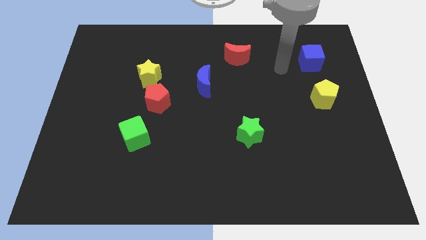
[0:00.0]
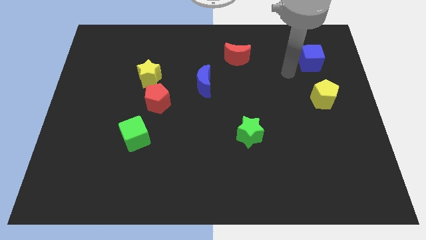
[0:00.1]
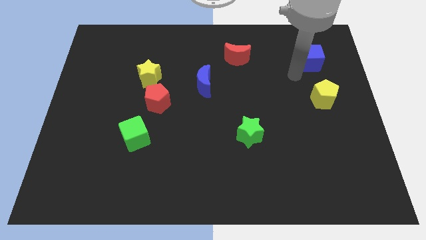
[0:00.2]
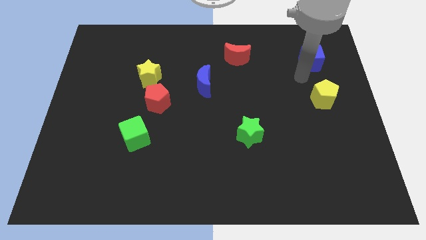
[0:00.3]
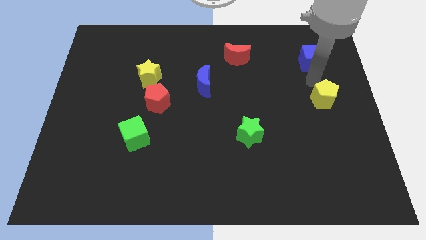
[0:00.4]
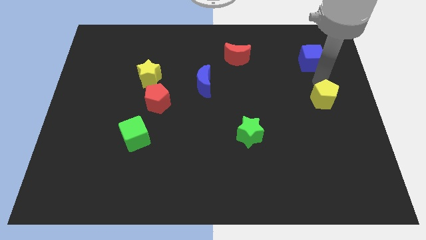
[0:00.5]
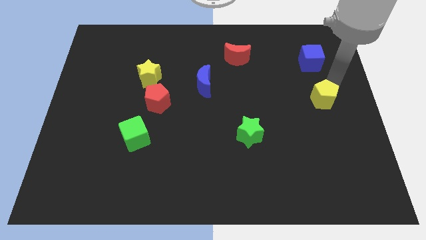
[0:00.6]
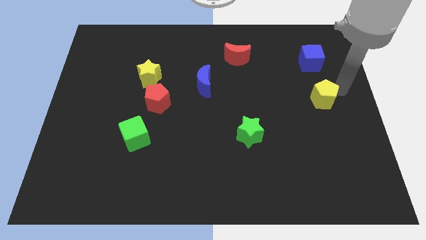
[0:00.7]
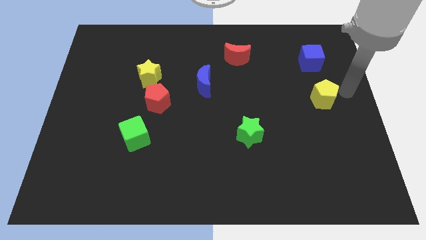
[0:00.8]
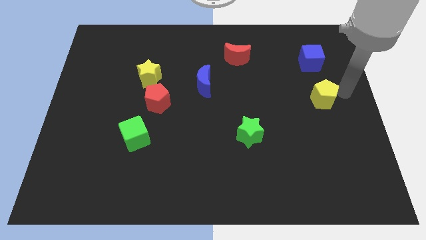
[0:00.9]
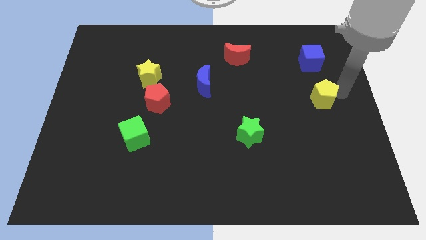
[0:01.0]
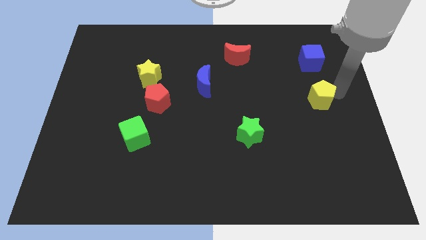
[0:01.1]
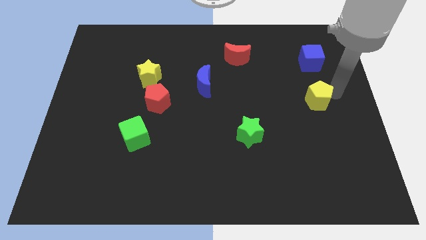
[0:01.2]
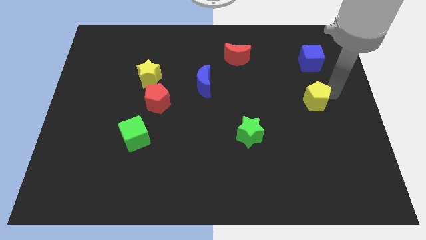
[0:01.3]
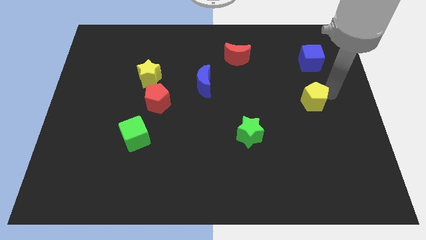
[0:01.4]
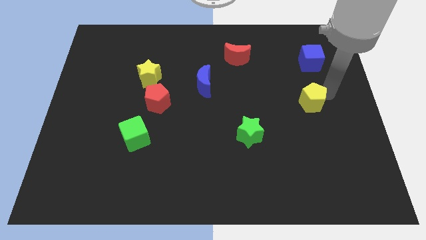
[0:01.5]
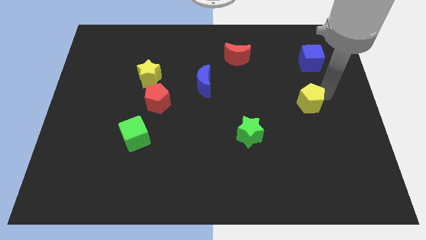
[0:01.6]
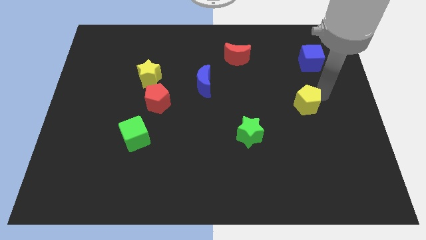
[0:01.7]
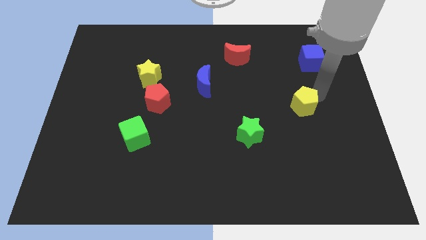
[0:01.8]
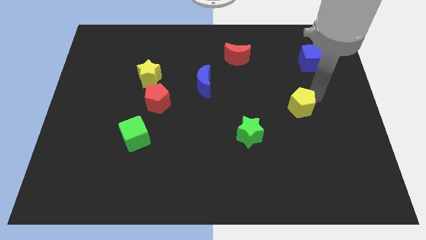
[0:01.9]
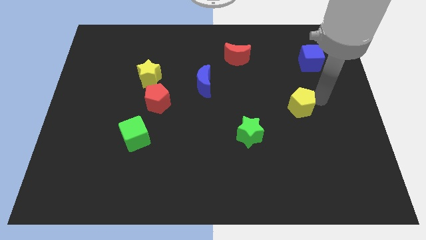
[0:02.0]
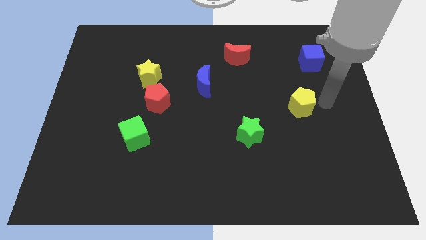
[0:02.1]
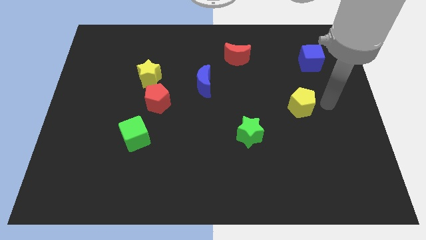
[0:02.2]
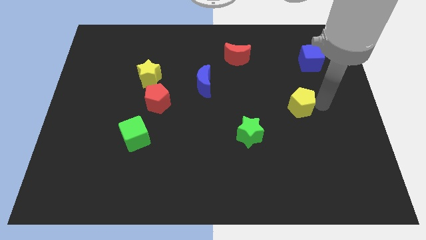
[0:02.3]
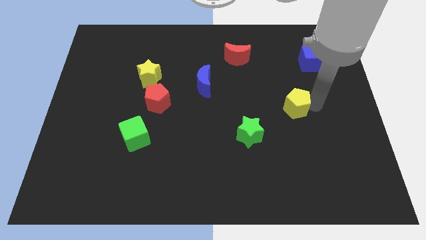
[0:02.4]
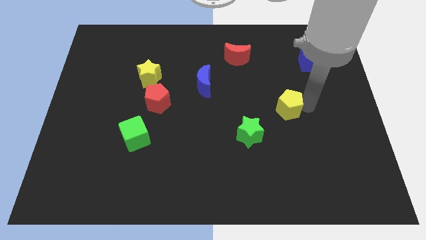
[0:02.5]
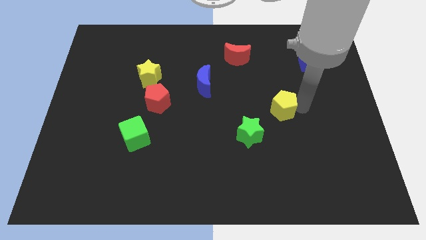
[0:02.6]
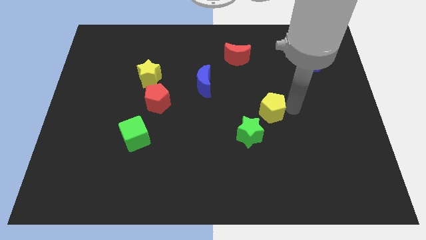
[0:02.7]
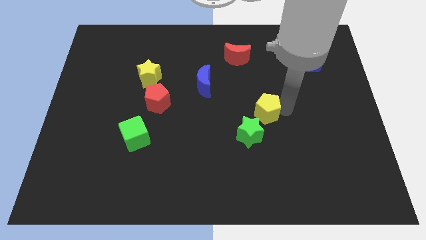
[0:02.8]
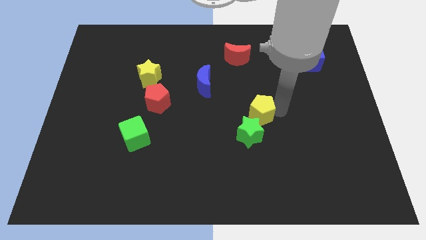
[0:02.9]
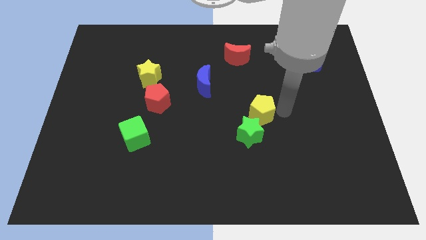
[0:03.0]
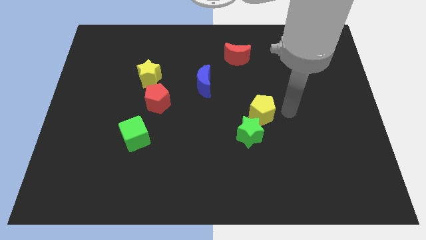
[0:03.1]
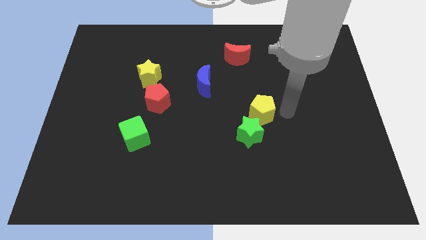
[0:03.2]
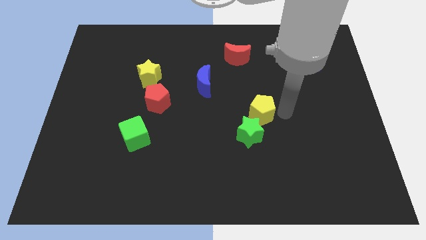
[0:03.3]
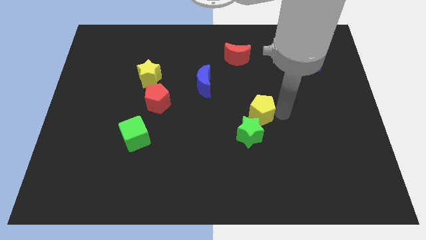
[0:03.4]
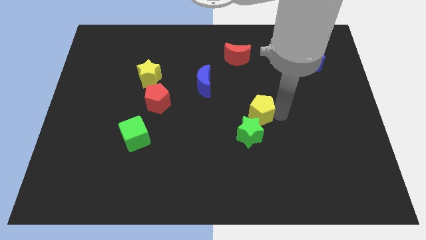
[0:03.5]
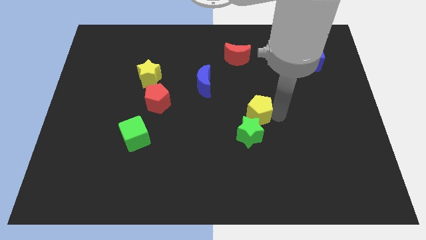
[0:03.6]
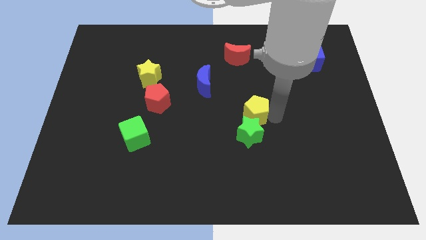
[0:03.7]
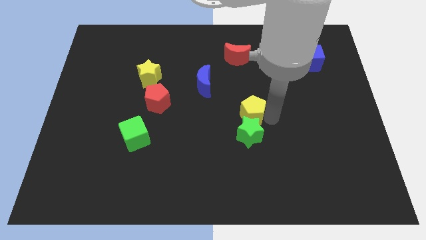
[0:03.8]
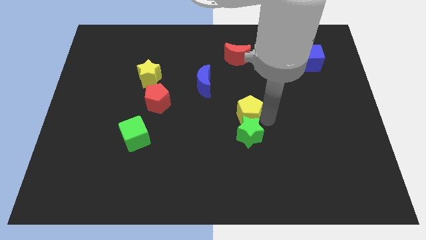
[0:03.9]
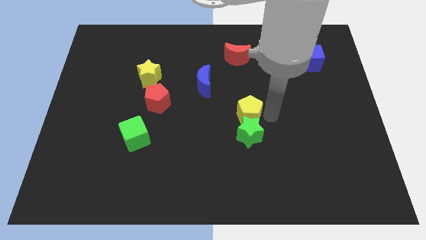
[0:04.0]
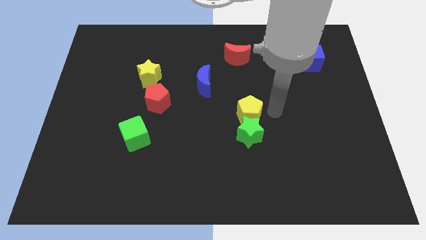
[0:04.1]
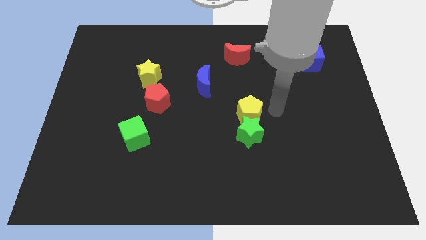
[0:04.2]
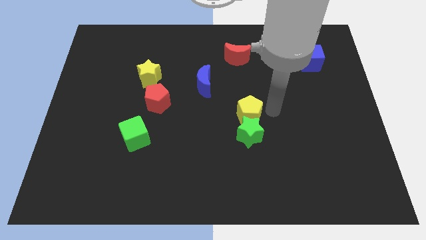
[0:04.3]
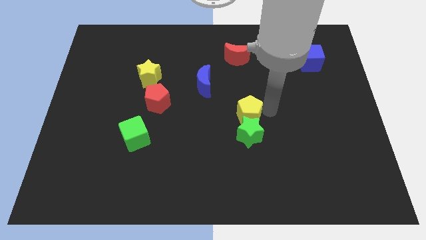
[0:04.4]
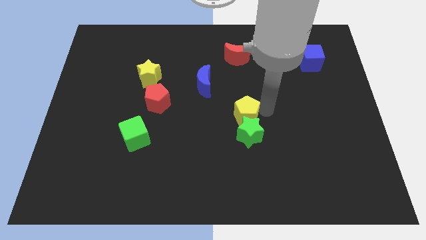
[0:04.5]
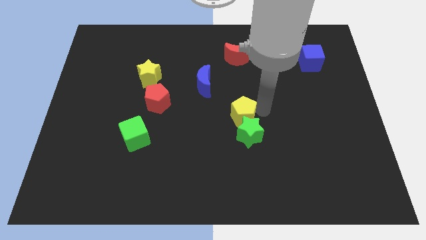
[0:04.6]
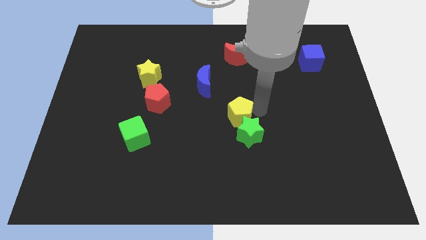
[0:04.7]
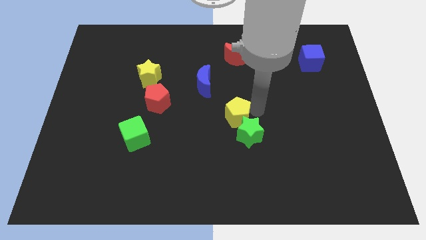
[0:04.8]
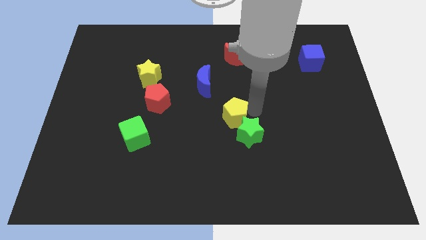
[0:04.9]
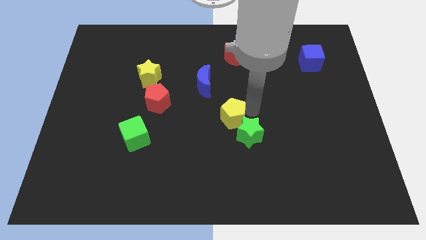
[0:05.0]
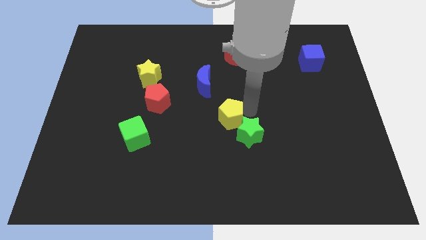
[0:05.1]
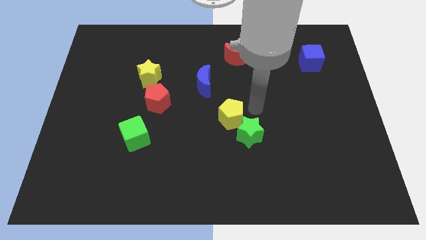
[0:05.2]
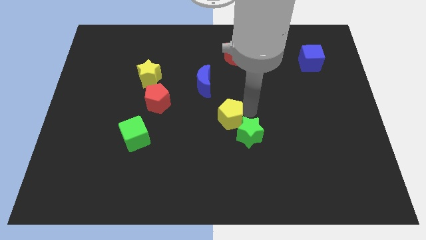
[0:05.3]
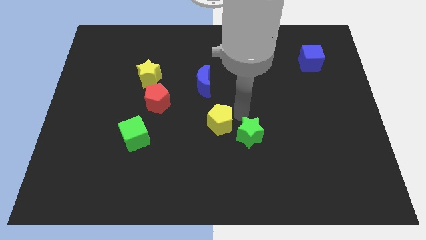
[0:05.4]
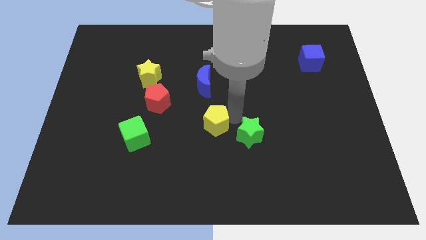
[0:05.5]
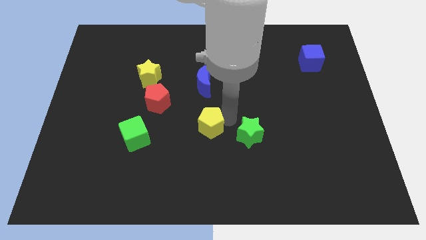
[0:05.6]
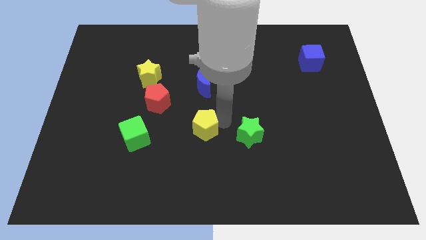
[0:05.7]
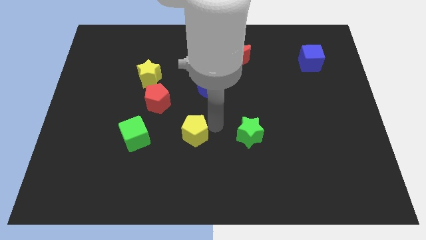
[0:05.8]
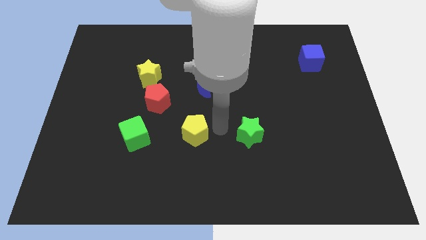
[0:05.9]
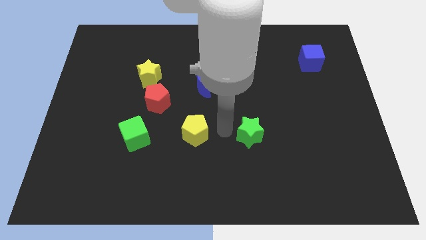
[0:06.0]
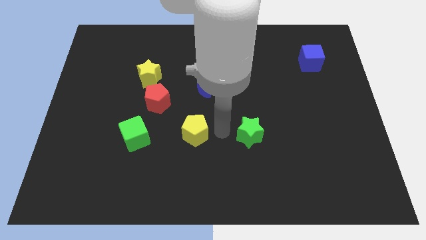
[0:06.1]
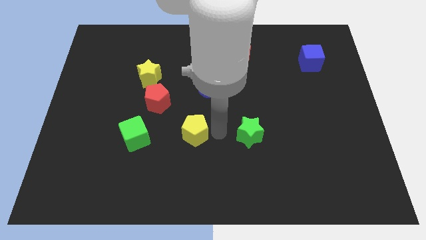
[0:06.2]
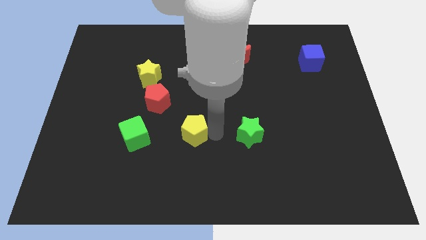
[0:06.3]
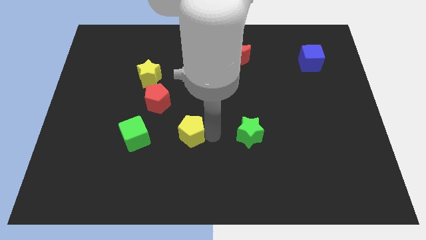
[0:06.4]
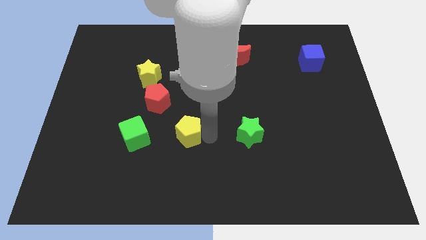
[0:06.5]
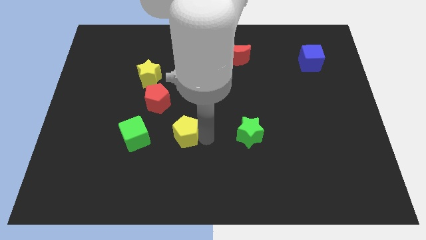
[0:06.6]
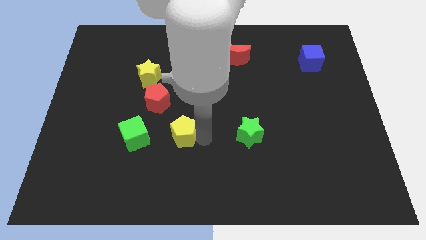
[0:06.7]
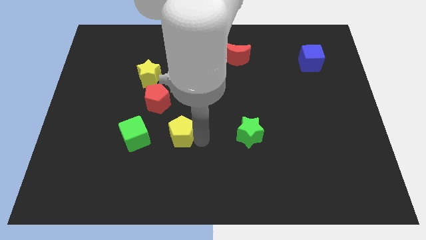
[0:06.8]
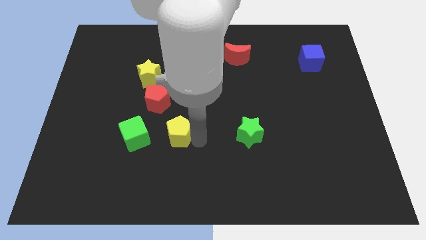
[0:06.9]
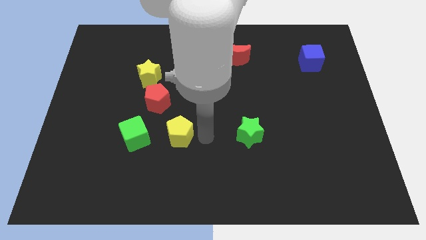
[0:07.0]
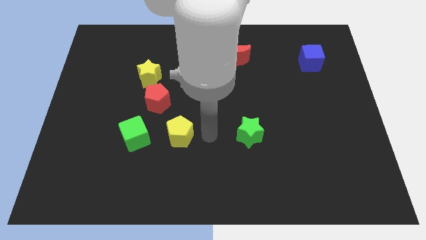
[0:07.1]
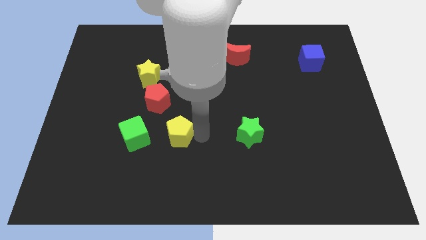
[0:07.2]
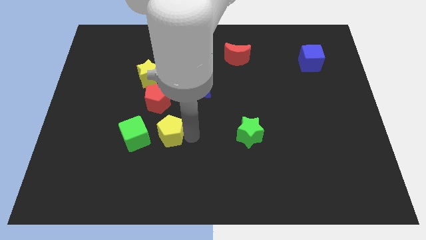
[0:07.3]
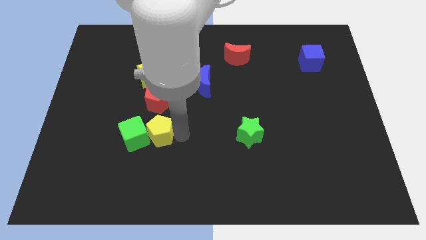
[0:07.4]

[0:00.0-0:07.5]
slide the yellow pentagon next to the green cube

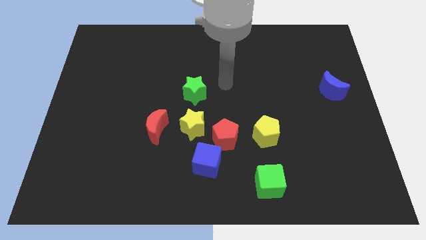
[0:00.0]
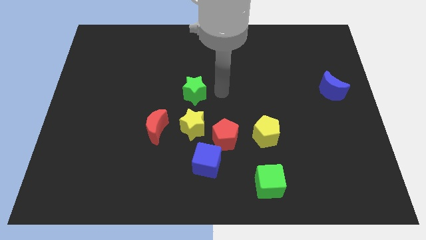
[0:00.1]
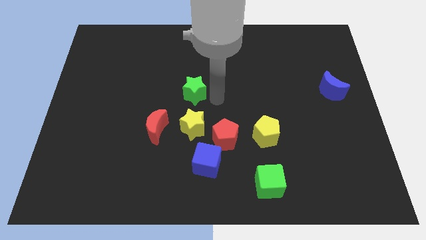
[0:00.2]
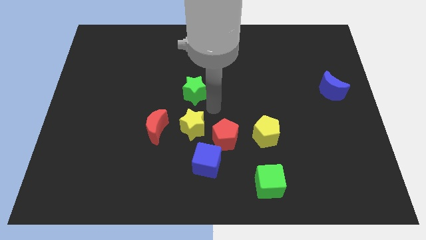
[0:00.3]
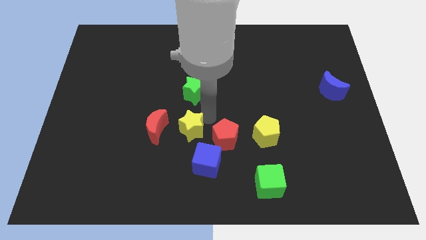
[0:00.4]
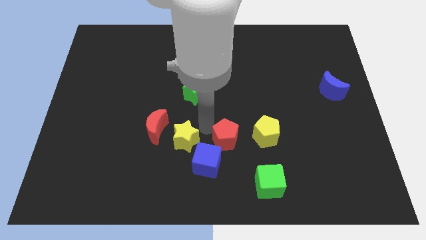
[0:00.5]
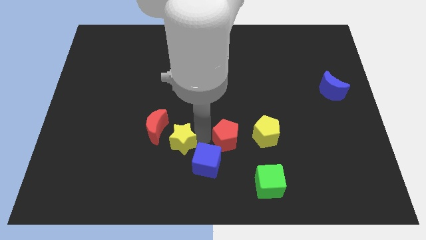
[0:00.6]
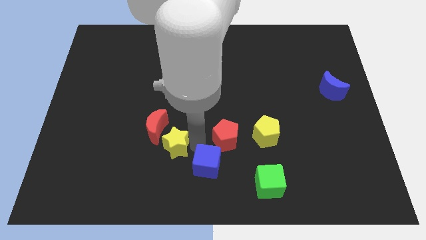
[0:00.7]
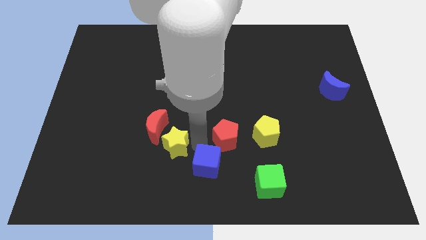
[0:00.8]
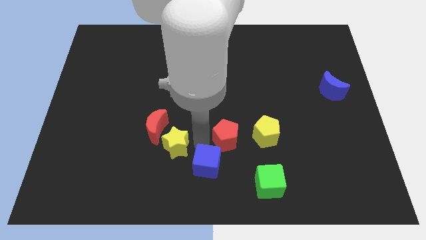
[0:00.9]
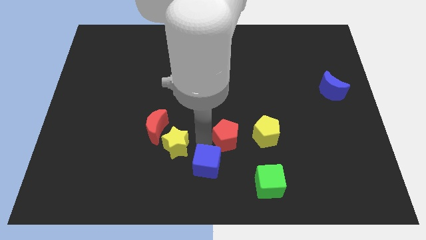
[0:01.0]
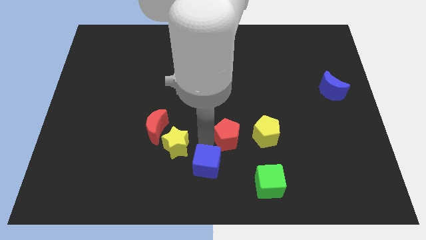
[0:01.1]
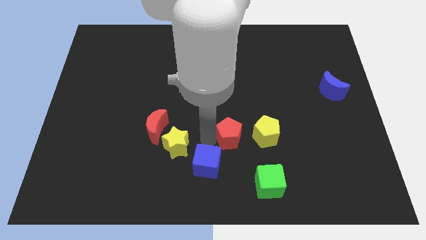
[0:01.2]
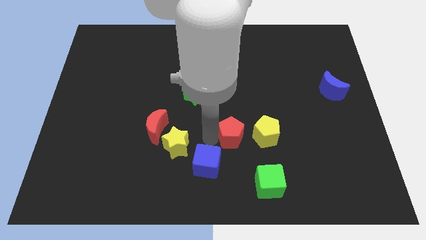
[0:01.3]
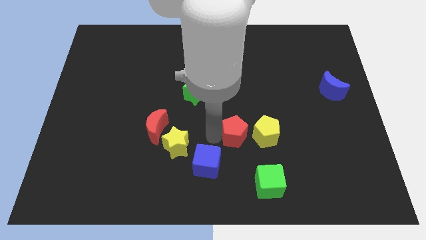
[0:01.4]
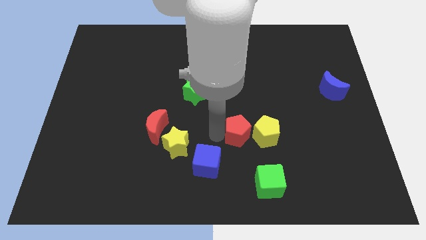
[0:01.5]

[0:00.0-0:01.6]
put the red pentagon towards the yellow pentagon
